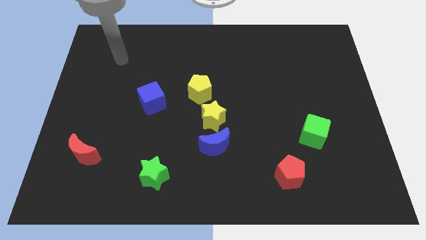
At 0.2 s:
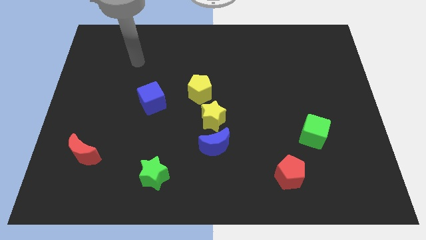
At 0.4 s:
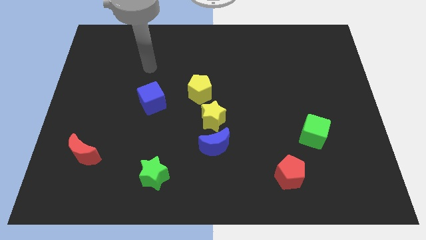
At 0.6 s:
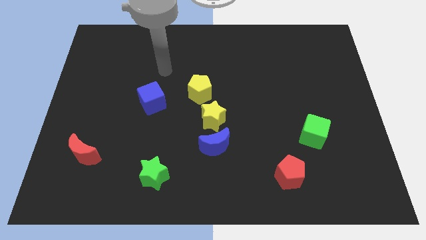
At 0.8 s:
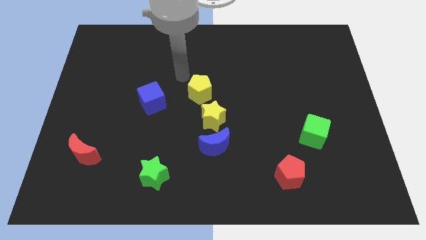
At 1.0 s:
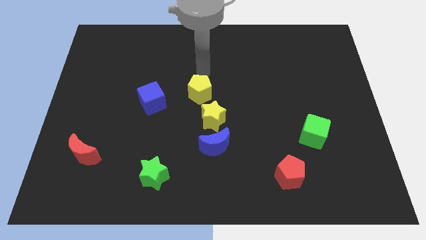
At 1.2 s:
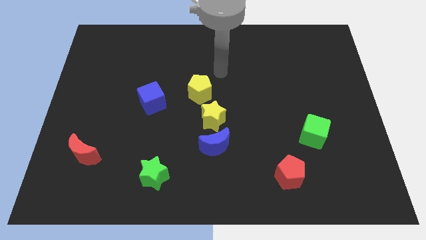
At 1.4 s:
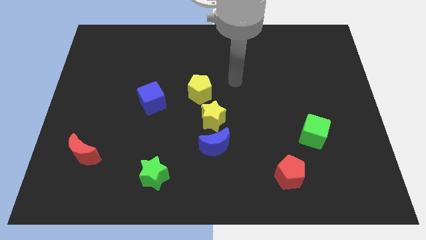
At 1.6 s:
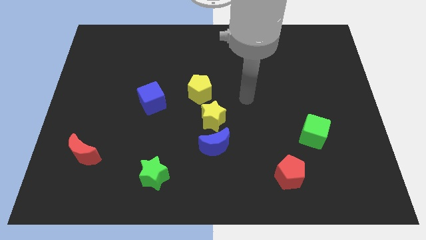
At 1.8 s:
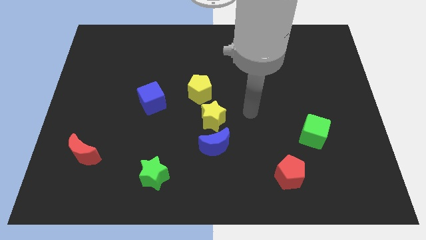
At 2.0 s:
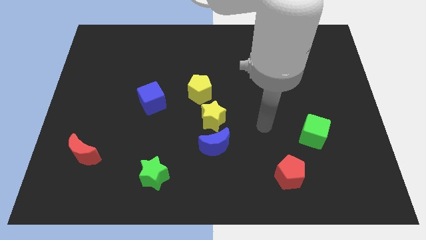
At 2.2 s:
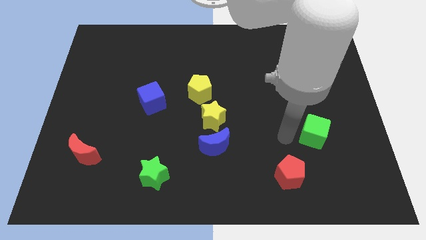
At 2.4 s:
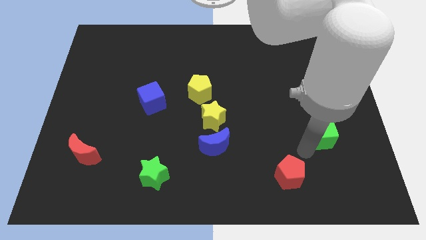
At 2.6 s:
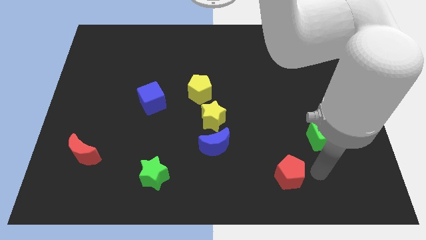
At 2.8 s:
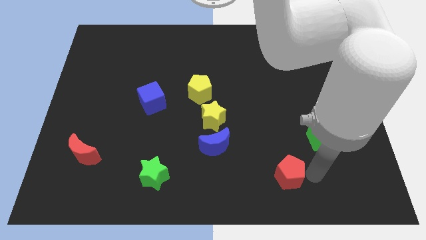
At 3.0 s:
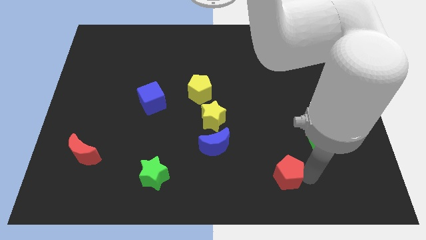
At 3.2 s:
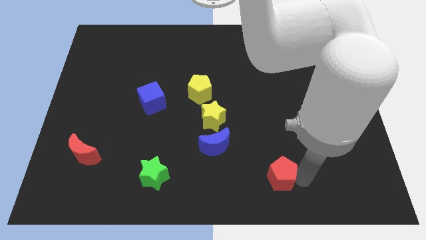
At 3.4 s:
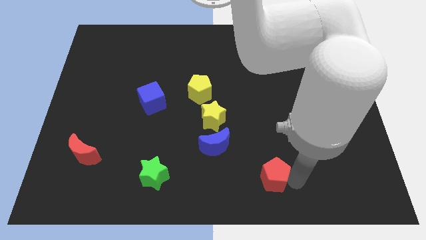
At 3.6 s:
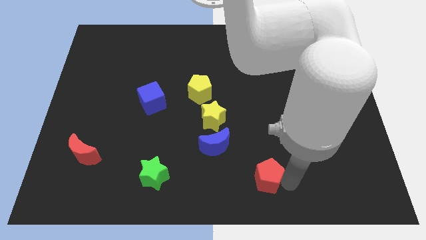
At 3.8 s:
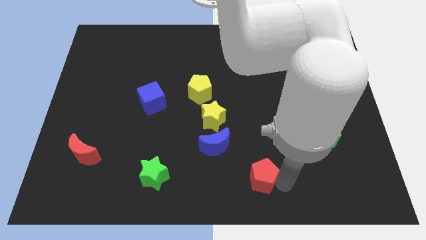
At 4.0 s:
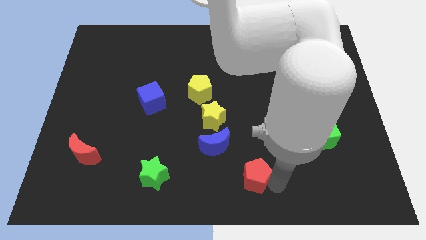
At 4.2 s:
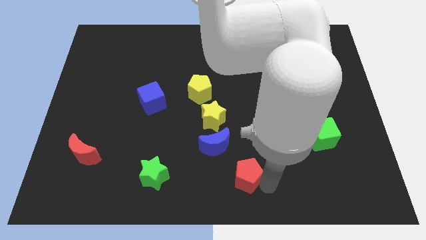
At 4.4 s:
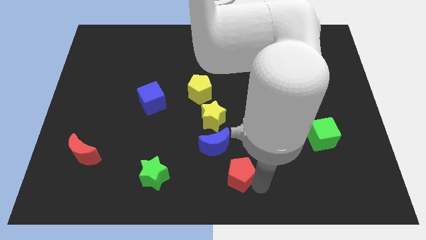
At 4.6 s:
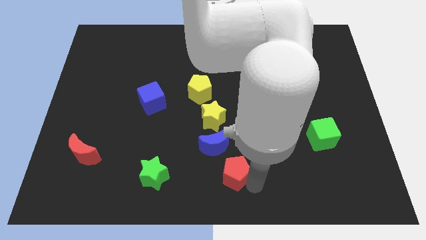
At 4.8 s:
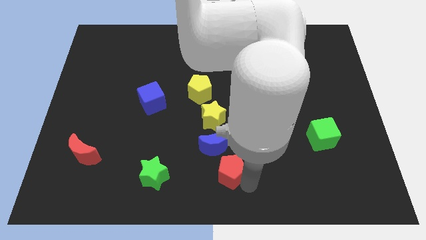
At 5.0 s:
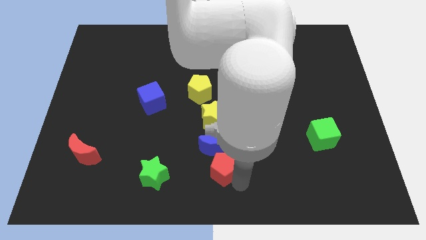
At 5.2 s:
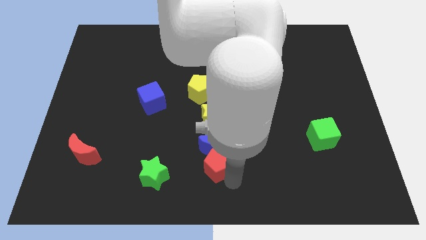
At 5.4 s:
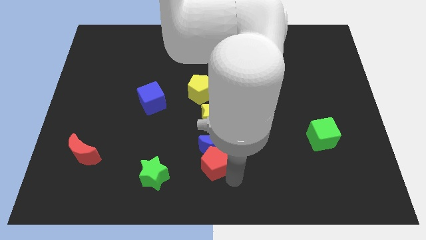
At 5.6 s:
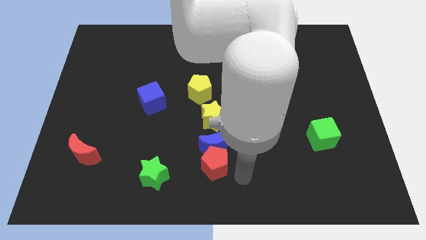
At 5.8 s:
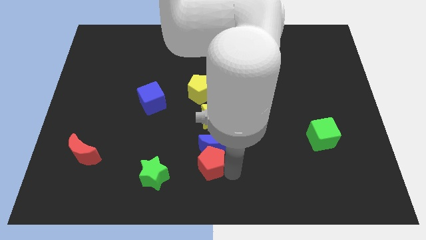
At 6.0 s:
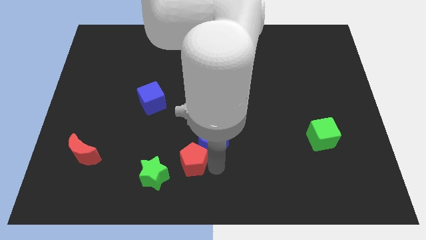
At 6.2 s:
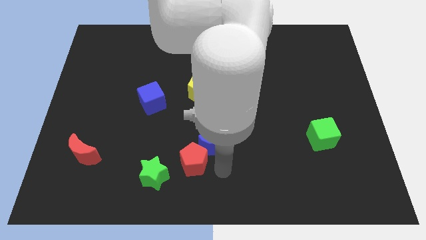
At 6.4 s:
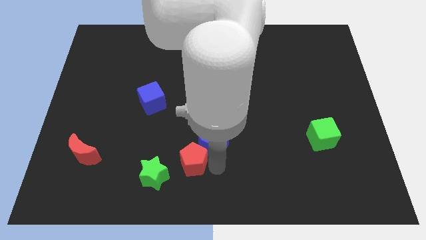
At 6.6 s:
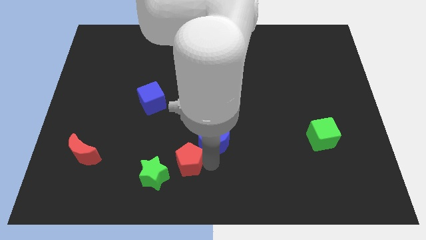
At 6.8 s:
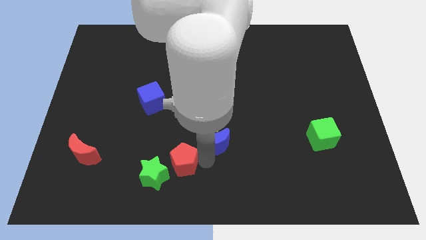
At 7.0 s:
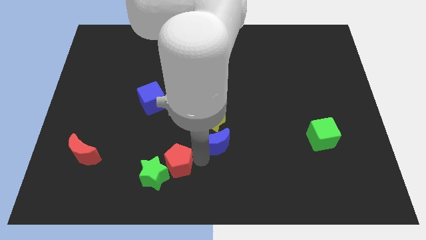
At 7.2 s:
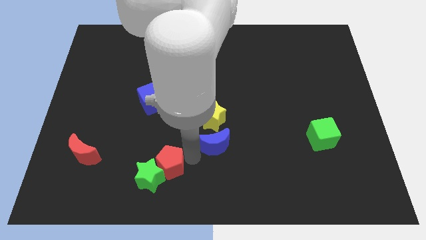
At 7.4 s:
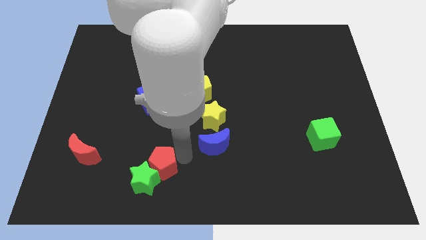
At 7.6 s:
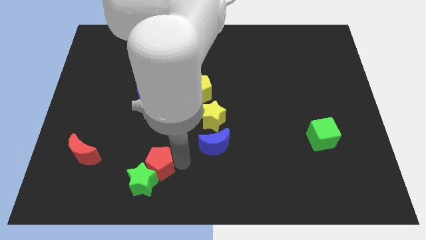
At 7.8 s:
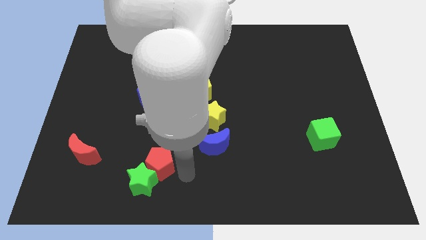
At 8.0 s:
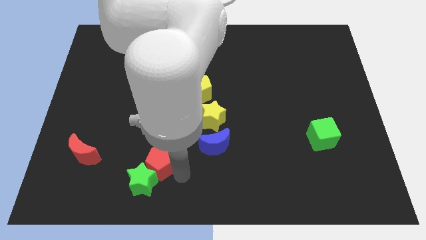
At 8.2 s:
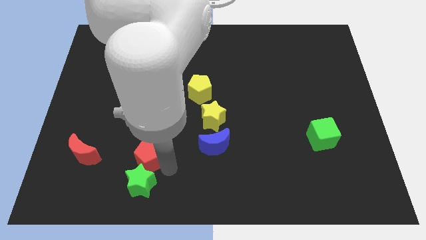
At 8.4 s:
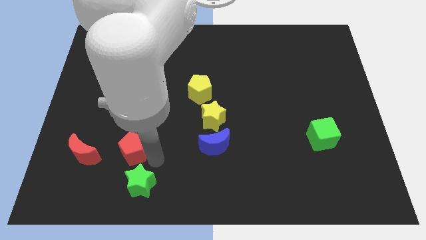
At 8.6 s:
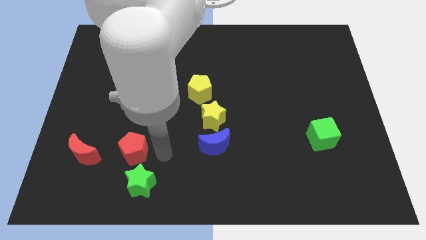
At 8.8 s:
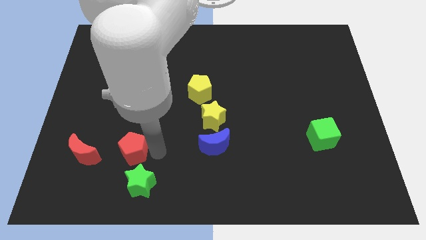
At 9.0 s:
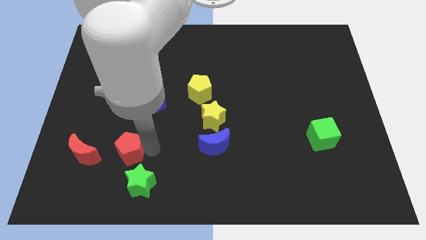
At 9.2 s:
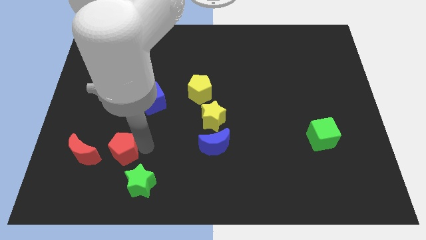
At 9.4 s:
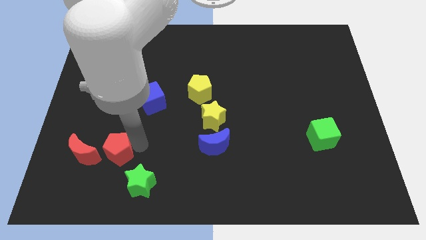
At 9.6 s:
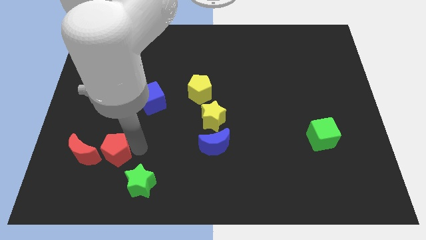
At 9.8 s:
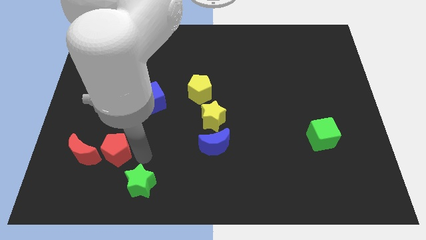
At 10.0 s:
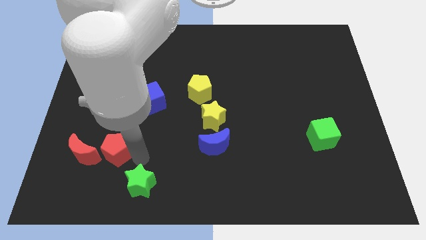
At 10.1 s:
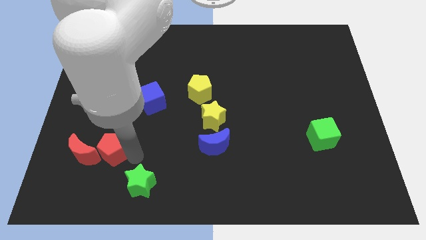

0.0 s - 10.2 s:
slide the red pentagon close to the red moon

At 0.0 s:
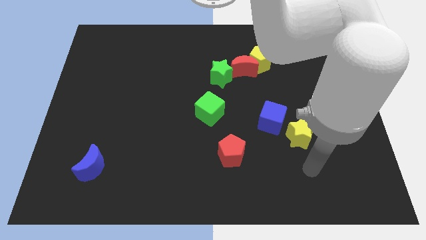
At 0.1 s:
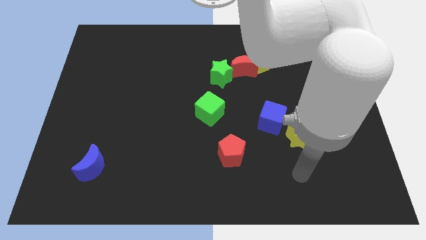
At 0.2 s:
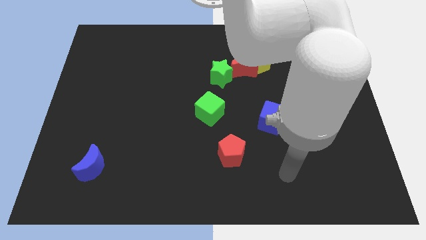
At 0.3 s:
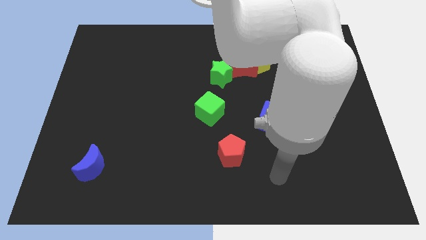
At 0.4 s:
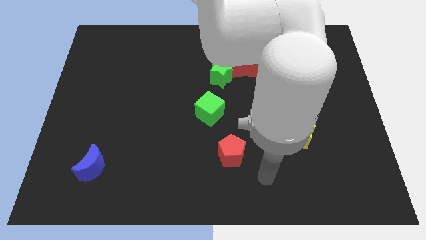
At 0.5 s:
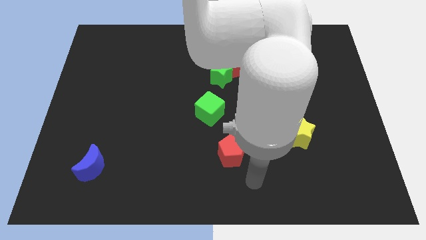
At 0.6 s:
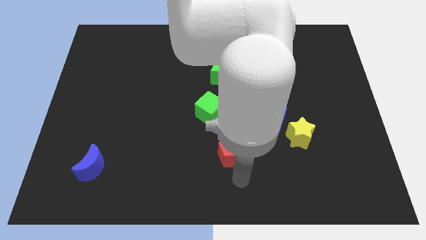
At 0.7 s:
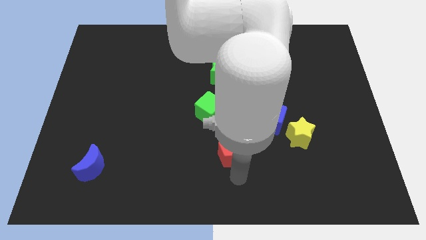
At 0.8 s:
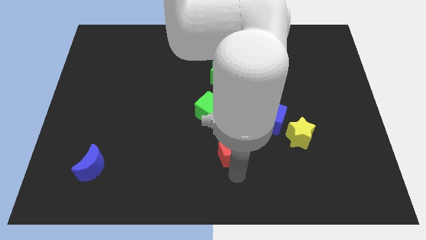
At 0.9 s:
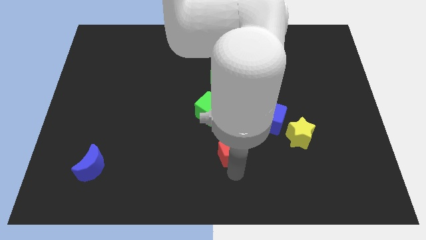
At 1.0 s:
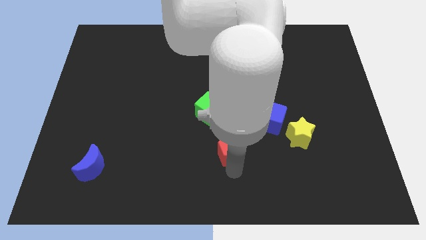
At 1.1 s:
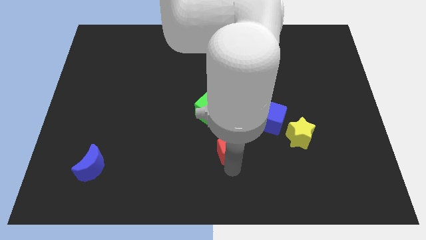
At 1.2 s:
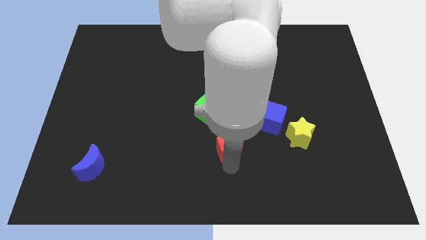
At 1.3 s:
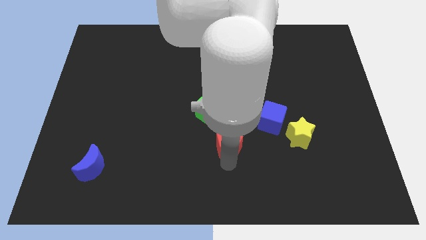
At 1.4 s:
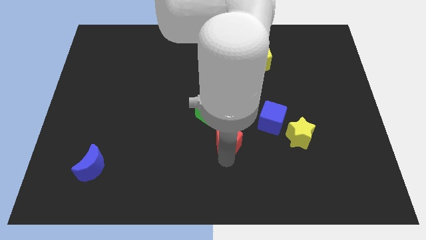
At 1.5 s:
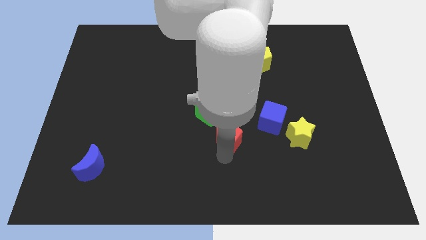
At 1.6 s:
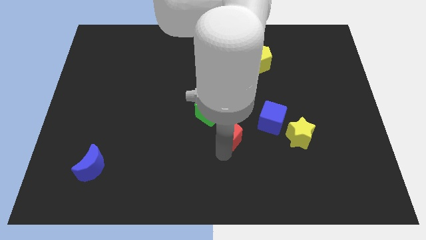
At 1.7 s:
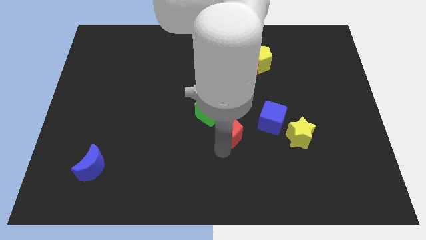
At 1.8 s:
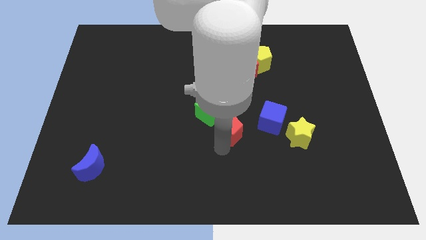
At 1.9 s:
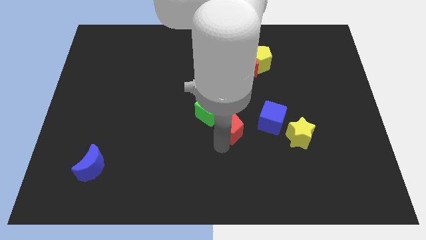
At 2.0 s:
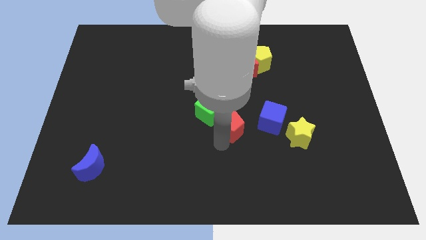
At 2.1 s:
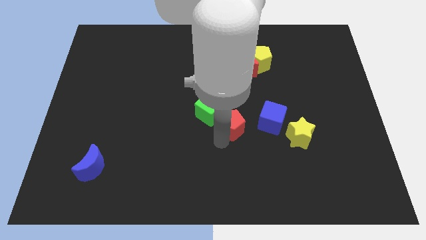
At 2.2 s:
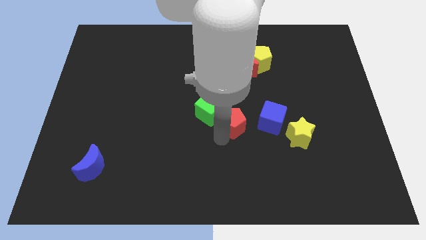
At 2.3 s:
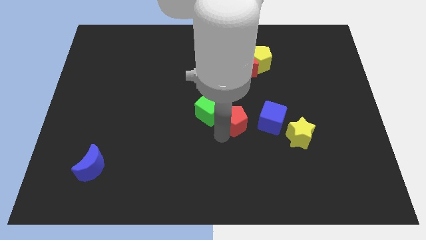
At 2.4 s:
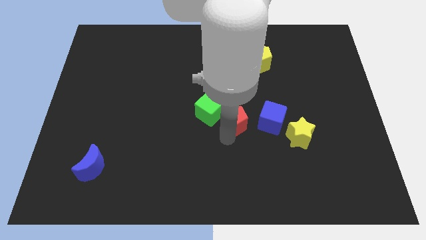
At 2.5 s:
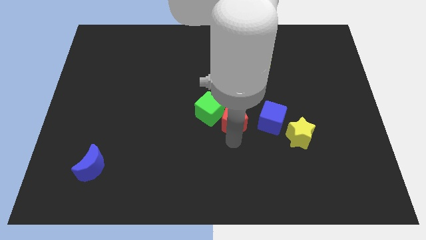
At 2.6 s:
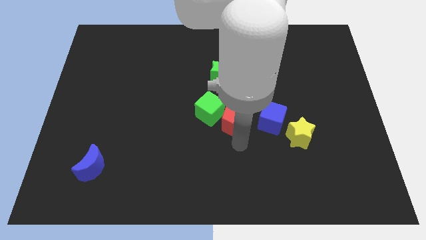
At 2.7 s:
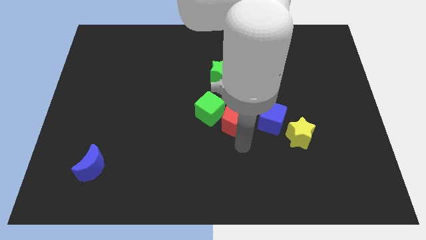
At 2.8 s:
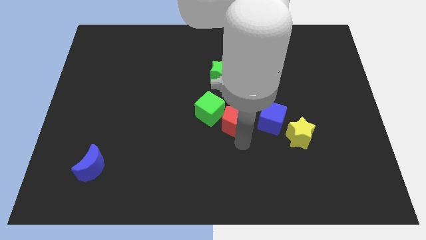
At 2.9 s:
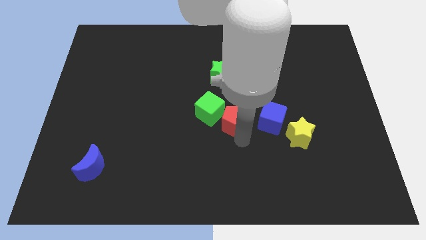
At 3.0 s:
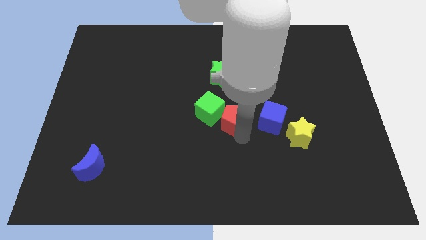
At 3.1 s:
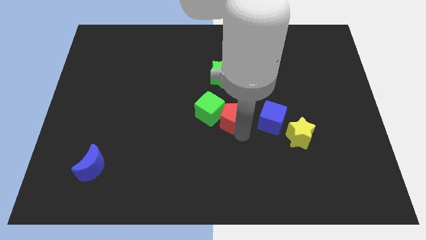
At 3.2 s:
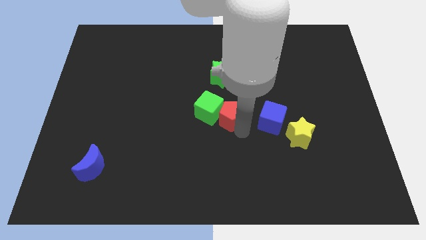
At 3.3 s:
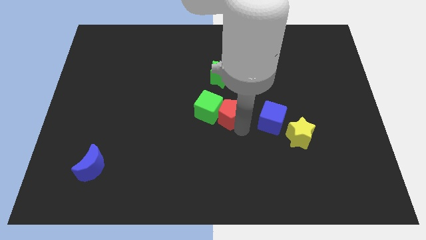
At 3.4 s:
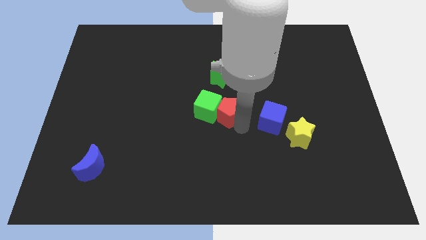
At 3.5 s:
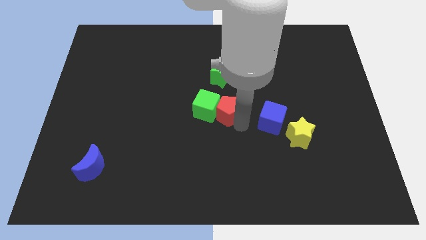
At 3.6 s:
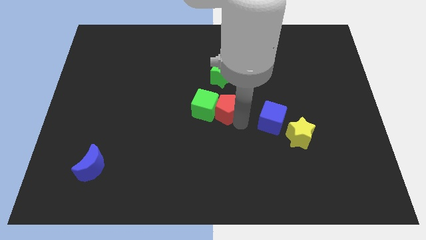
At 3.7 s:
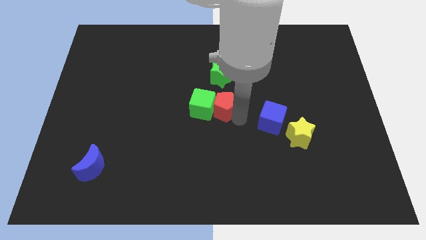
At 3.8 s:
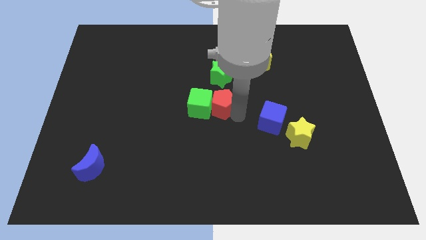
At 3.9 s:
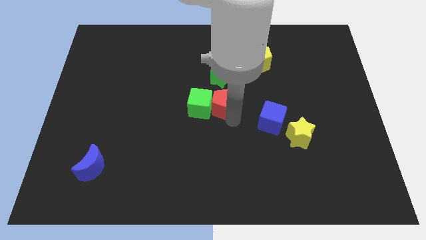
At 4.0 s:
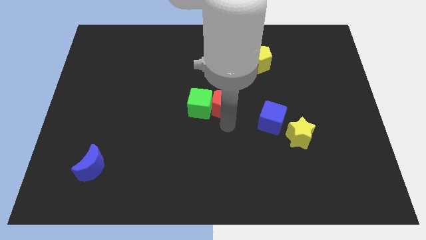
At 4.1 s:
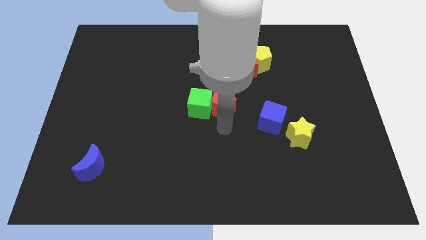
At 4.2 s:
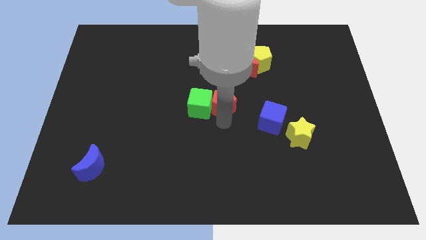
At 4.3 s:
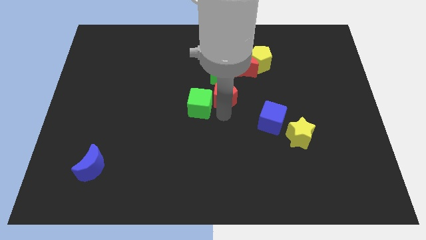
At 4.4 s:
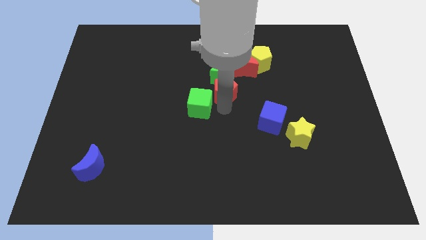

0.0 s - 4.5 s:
push the red pentagon close to the green star
